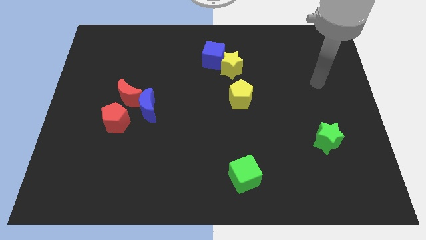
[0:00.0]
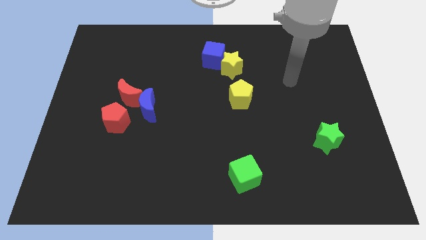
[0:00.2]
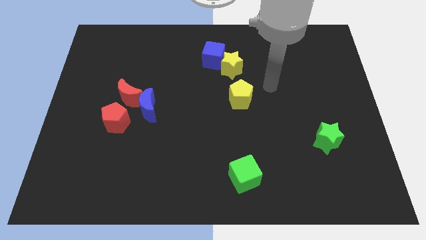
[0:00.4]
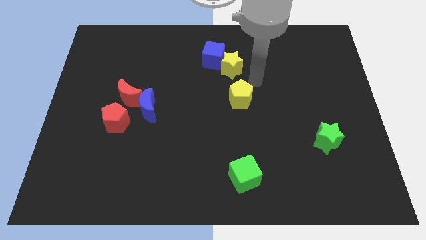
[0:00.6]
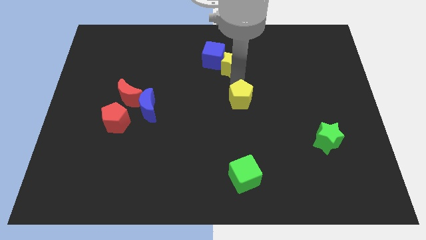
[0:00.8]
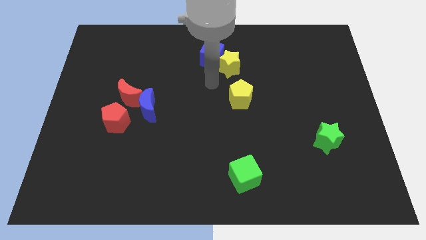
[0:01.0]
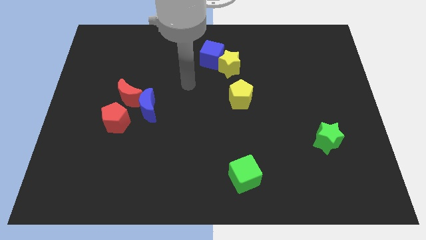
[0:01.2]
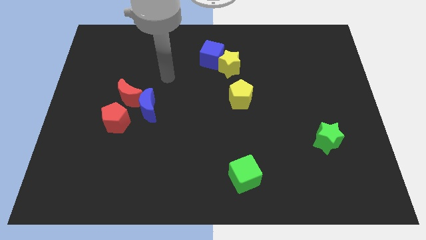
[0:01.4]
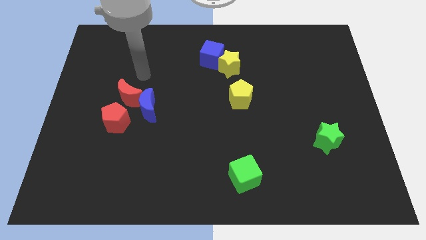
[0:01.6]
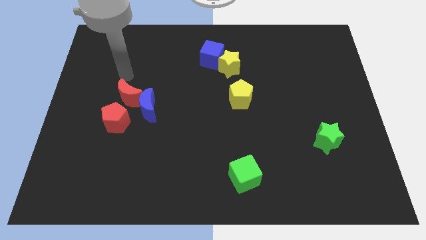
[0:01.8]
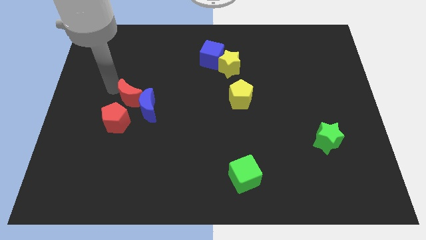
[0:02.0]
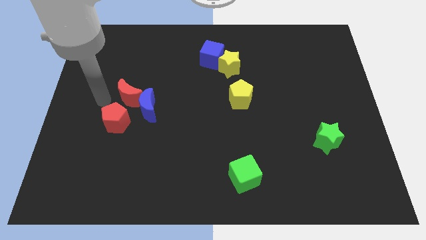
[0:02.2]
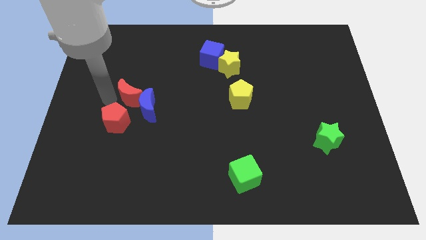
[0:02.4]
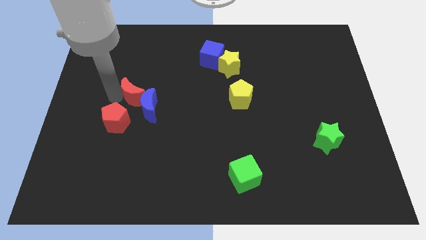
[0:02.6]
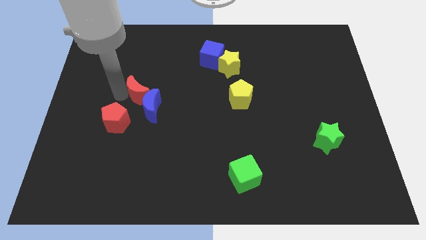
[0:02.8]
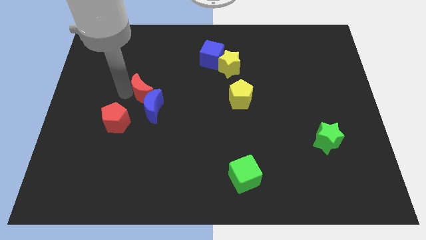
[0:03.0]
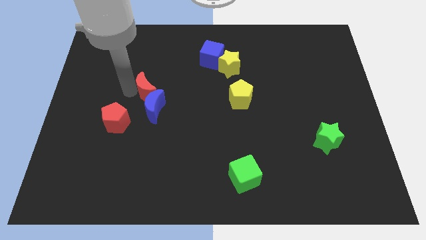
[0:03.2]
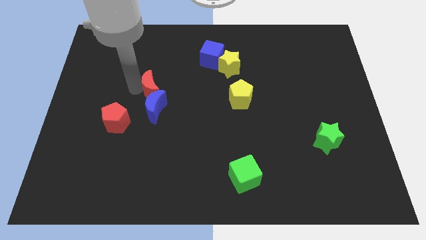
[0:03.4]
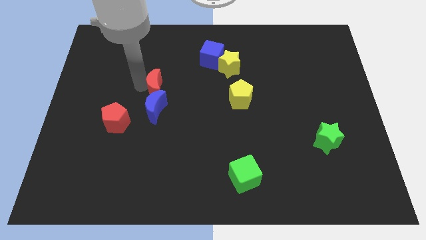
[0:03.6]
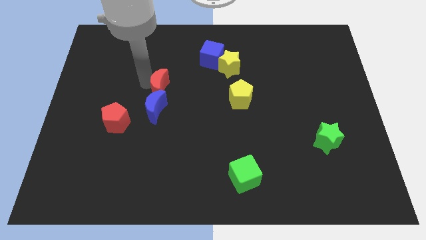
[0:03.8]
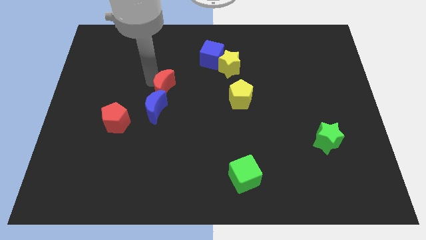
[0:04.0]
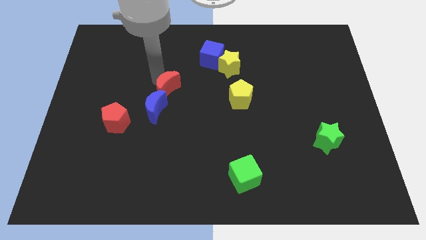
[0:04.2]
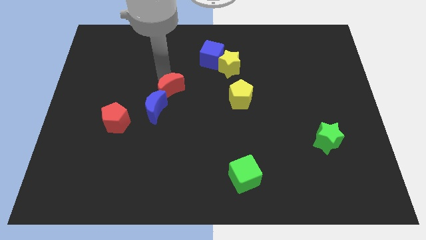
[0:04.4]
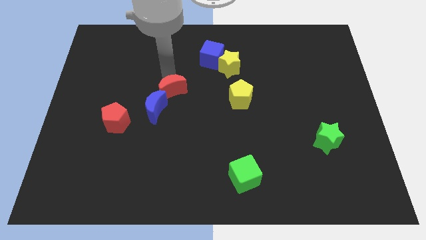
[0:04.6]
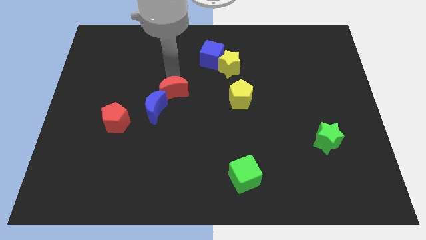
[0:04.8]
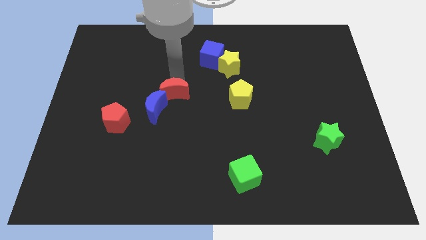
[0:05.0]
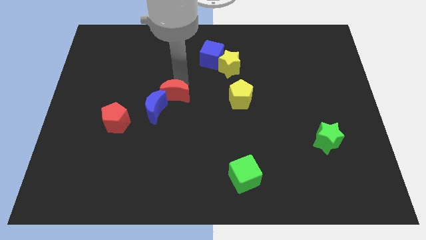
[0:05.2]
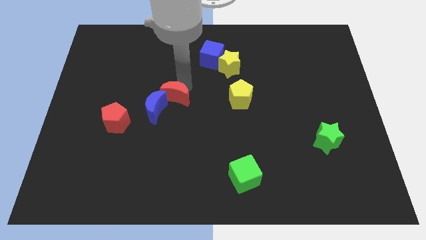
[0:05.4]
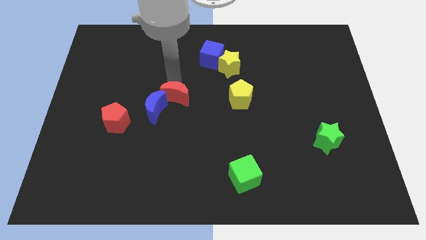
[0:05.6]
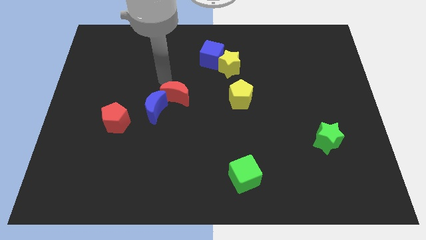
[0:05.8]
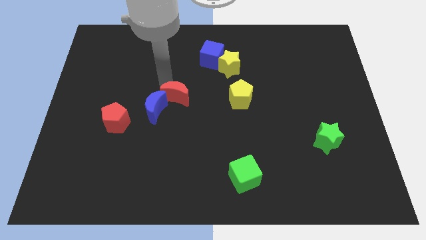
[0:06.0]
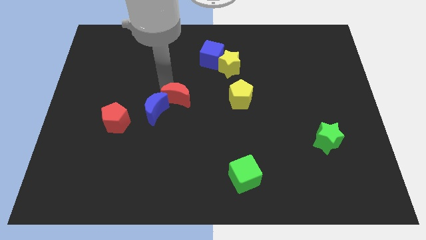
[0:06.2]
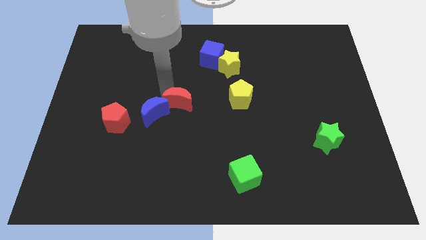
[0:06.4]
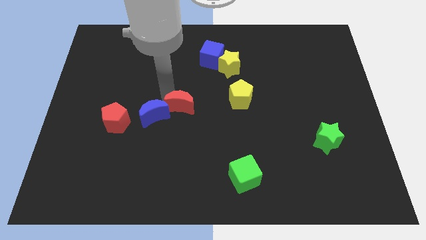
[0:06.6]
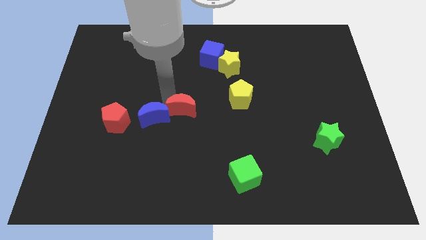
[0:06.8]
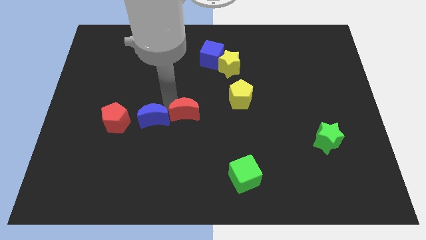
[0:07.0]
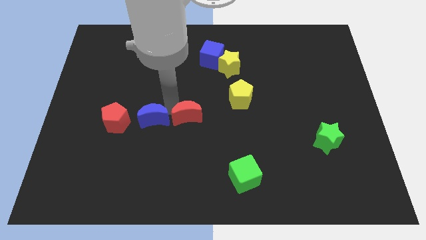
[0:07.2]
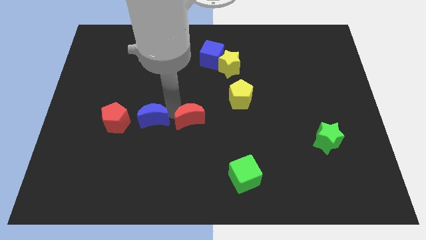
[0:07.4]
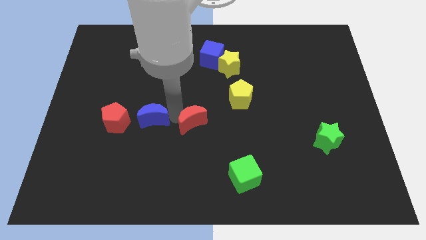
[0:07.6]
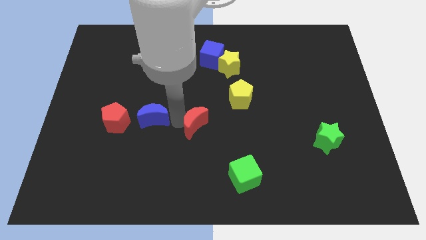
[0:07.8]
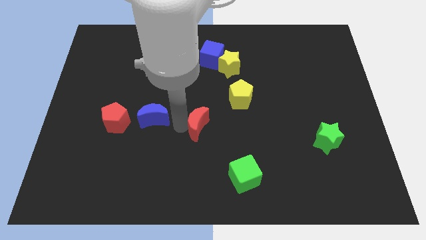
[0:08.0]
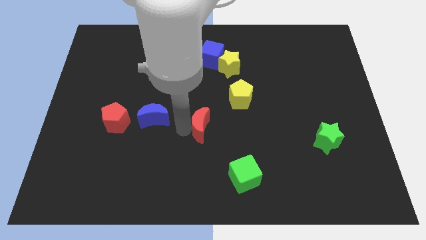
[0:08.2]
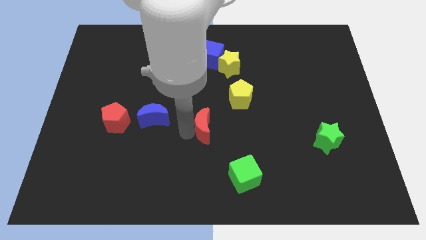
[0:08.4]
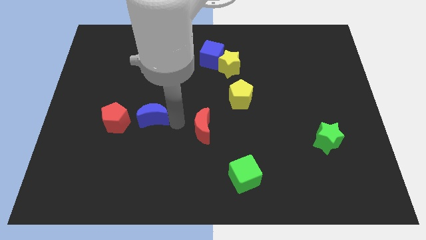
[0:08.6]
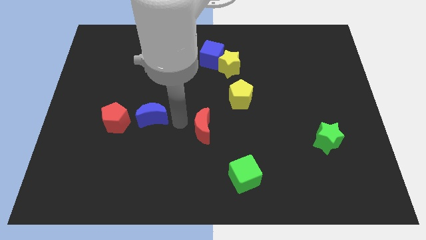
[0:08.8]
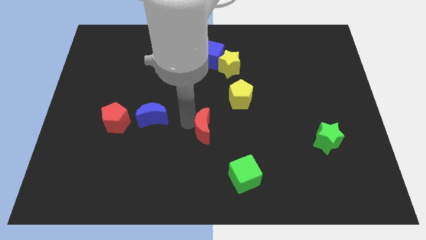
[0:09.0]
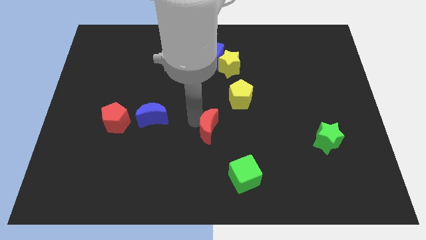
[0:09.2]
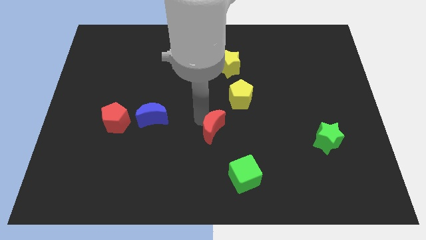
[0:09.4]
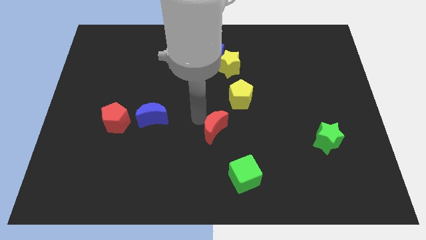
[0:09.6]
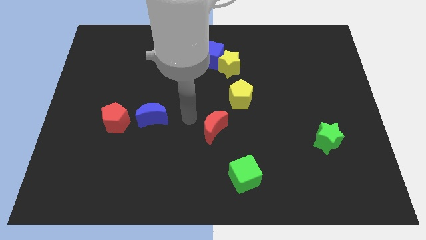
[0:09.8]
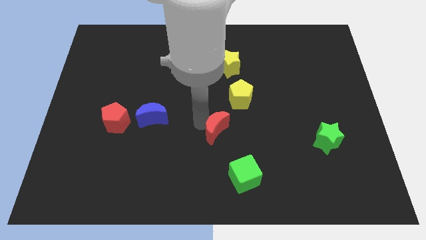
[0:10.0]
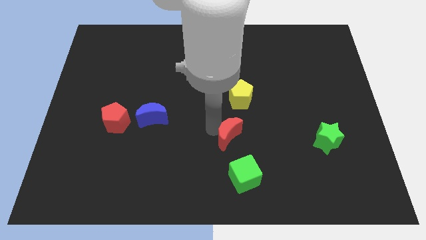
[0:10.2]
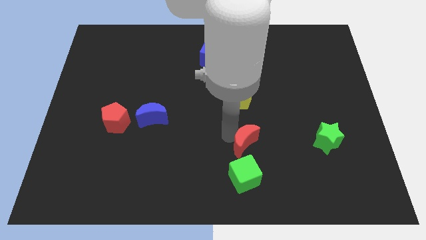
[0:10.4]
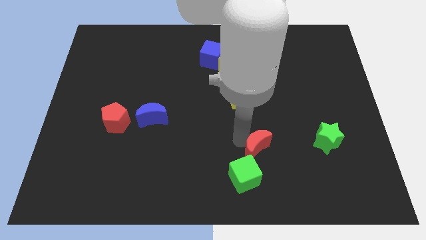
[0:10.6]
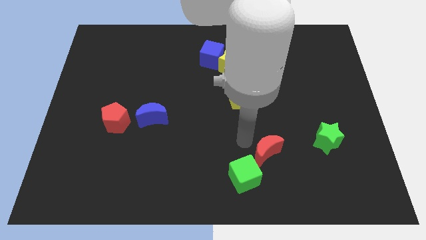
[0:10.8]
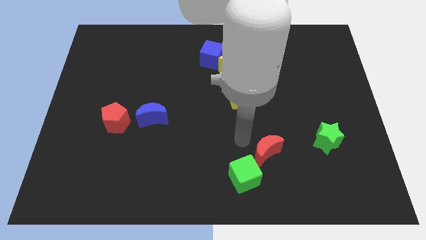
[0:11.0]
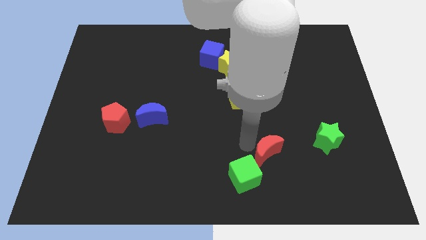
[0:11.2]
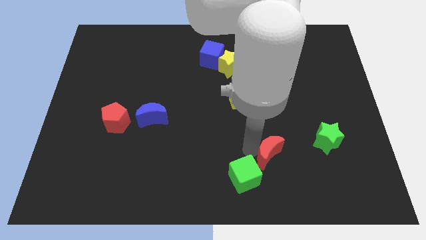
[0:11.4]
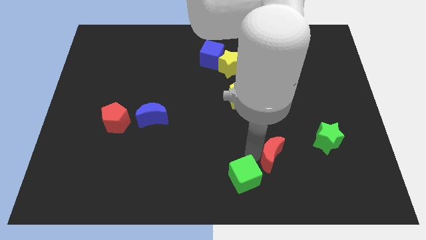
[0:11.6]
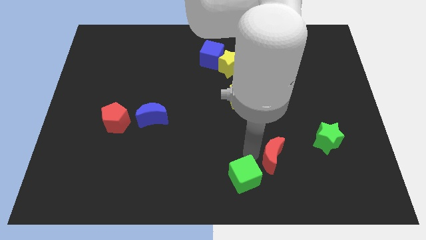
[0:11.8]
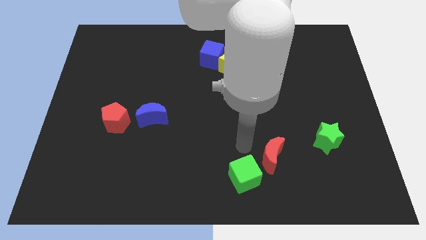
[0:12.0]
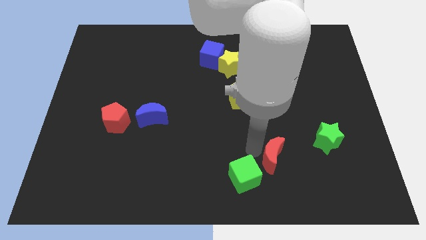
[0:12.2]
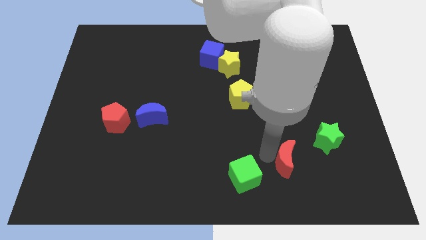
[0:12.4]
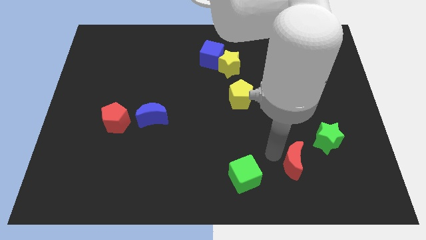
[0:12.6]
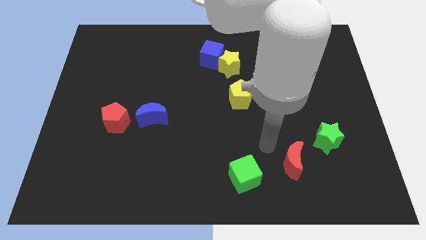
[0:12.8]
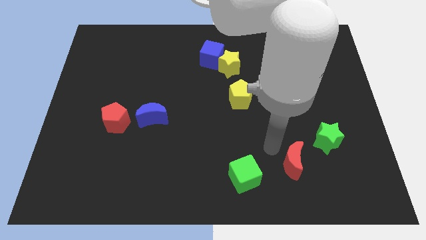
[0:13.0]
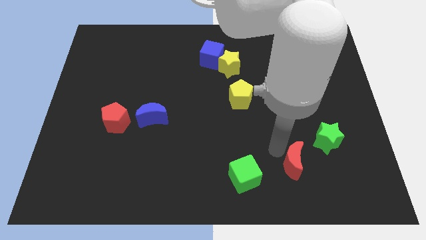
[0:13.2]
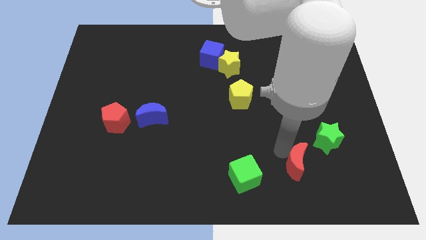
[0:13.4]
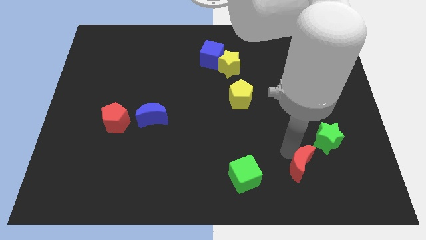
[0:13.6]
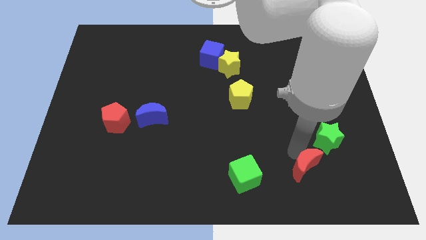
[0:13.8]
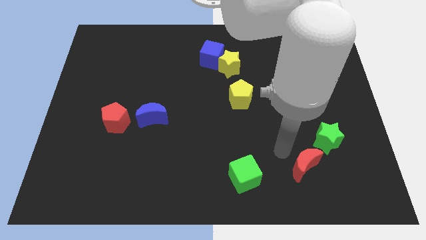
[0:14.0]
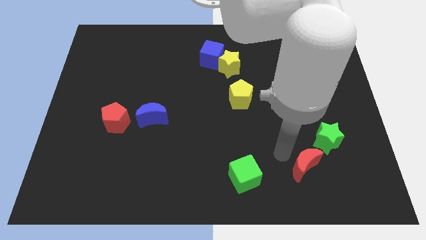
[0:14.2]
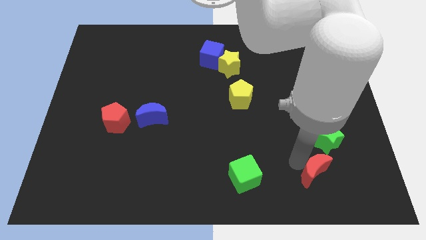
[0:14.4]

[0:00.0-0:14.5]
slide the red moon to the bottom of the green star
